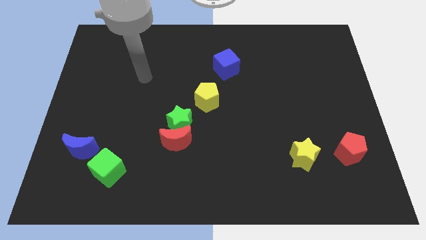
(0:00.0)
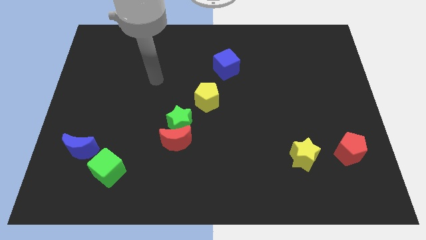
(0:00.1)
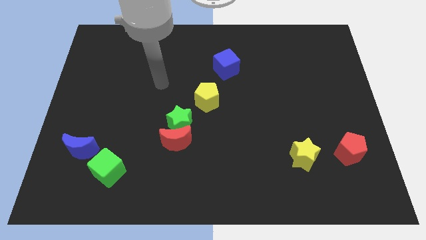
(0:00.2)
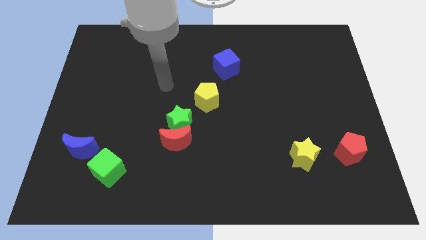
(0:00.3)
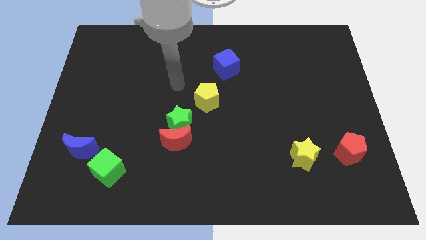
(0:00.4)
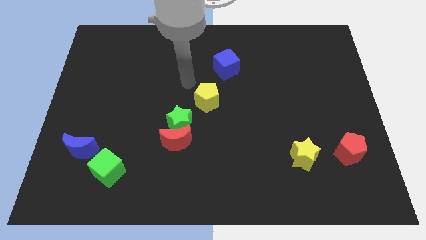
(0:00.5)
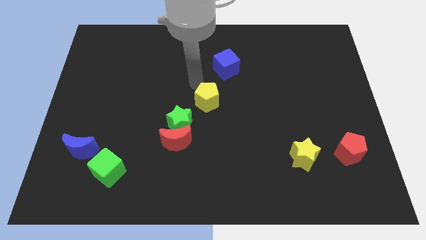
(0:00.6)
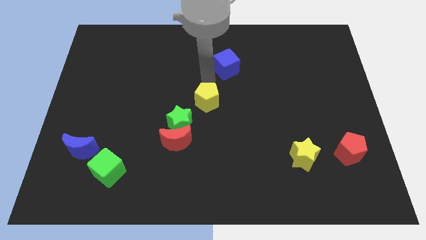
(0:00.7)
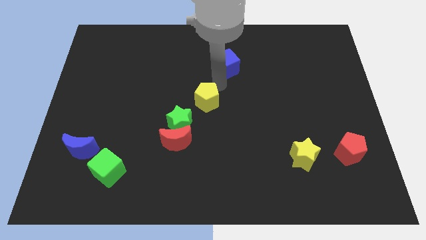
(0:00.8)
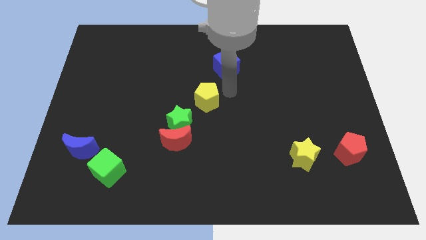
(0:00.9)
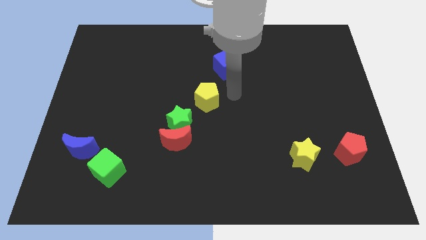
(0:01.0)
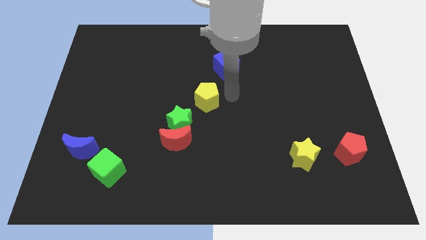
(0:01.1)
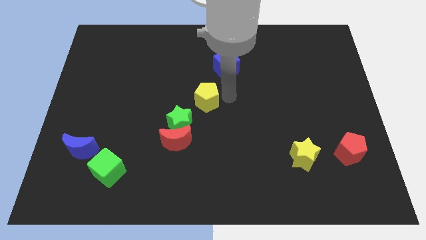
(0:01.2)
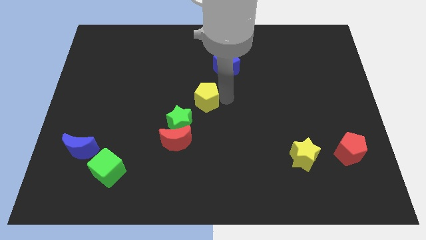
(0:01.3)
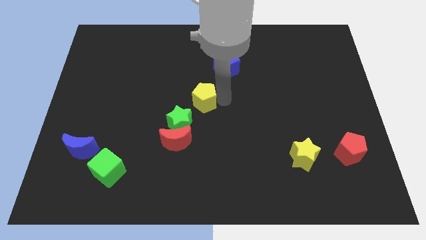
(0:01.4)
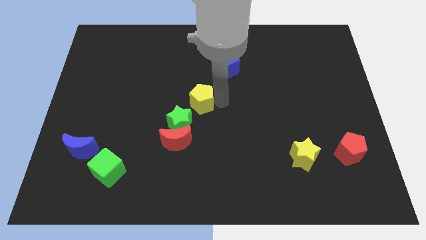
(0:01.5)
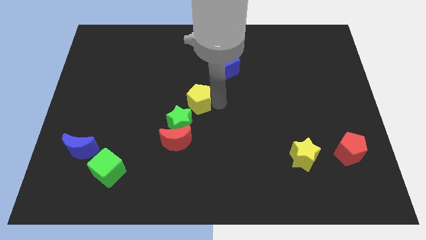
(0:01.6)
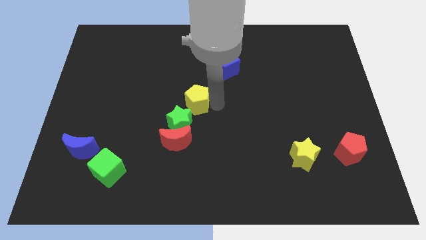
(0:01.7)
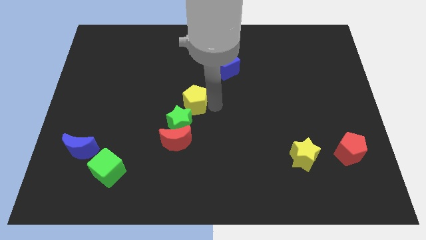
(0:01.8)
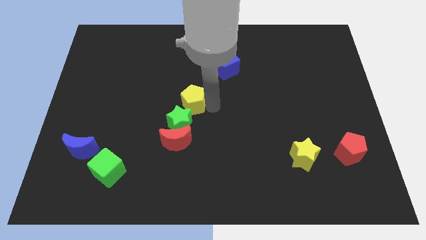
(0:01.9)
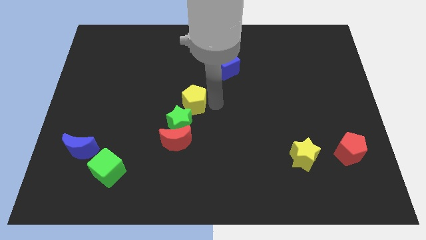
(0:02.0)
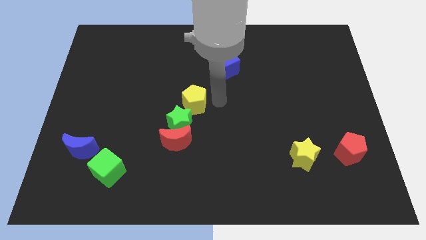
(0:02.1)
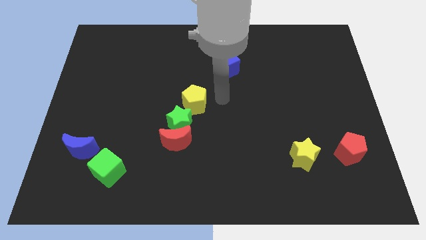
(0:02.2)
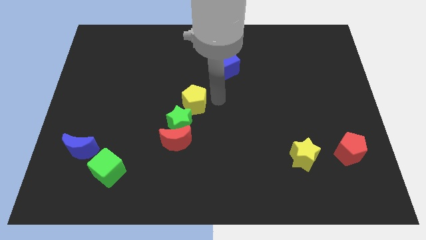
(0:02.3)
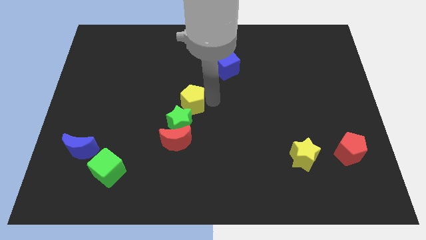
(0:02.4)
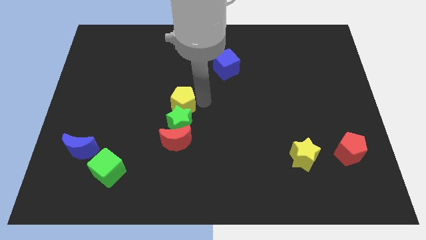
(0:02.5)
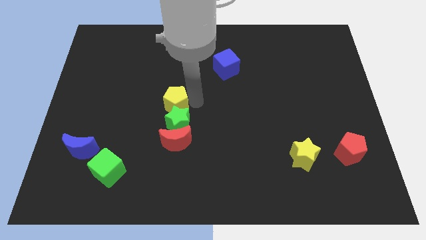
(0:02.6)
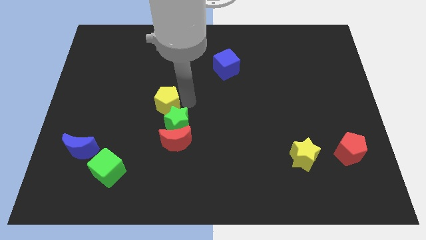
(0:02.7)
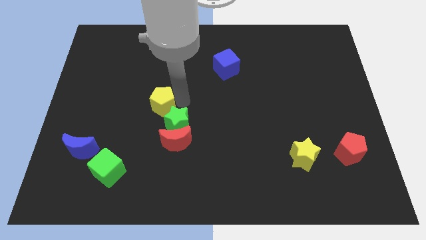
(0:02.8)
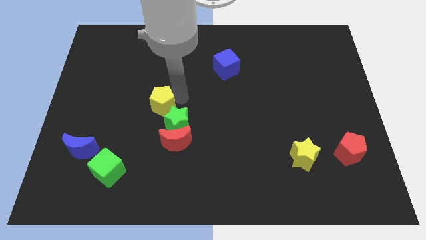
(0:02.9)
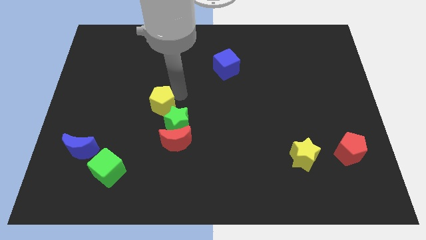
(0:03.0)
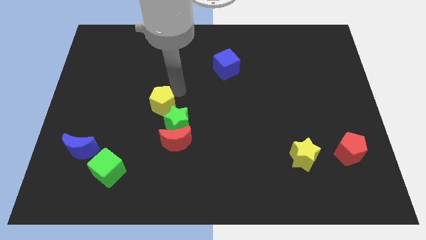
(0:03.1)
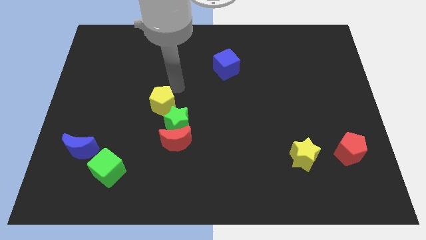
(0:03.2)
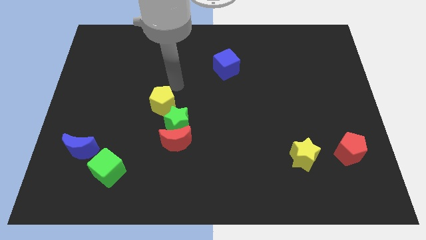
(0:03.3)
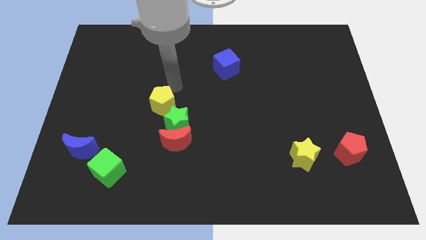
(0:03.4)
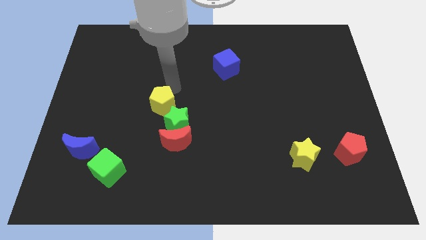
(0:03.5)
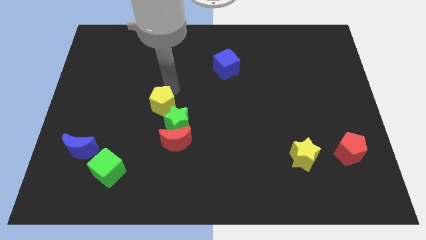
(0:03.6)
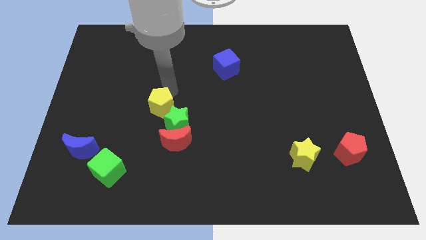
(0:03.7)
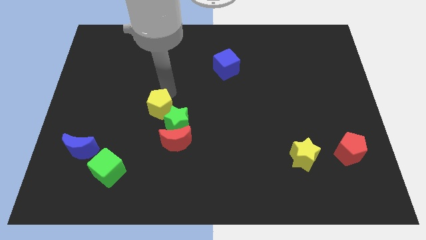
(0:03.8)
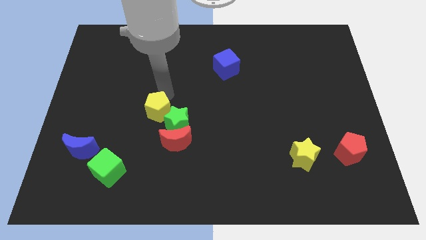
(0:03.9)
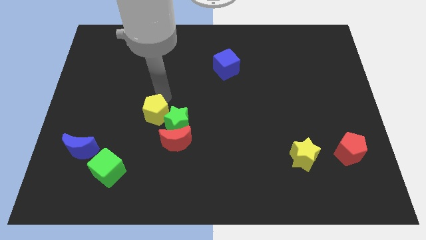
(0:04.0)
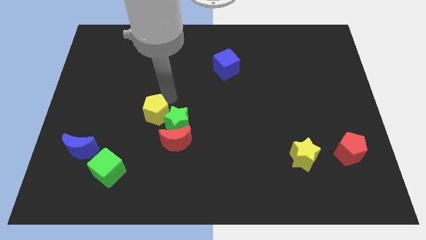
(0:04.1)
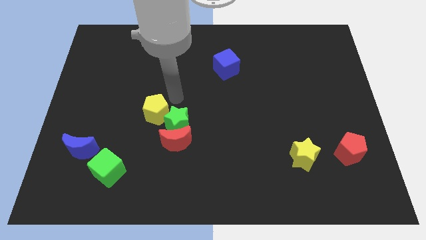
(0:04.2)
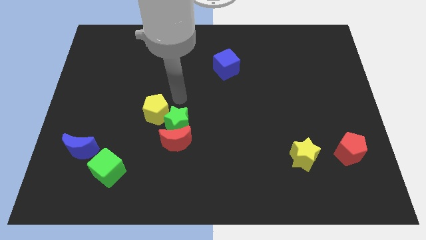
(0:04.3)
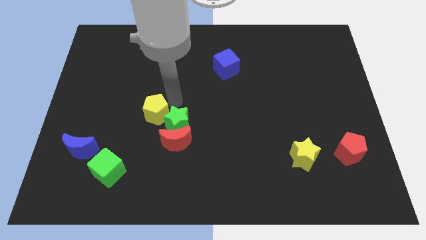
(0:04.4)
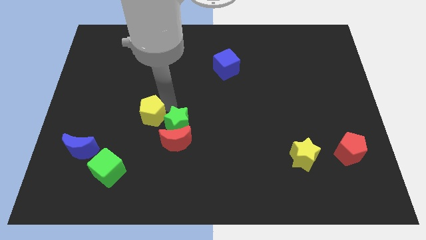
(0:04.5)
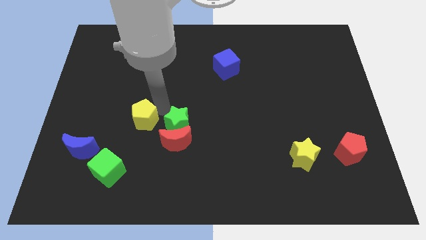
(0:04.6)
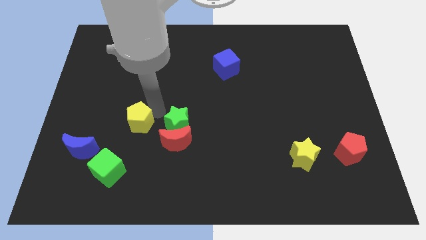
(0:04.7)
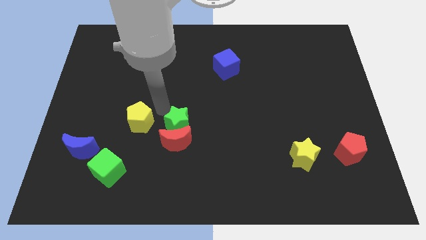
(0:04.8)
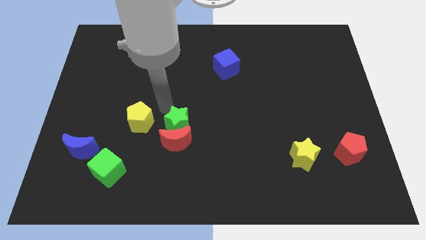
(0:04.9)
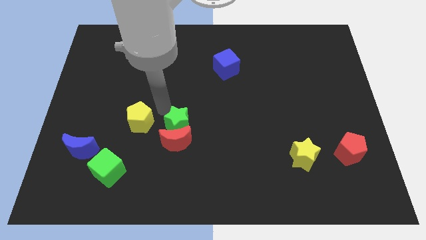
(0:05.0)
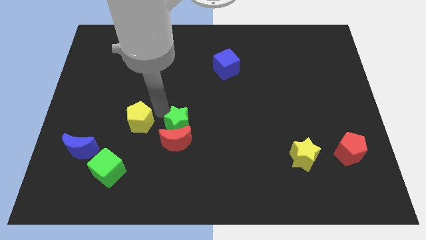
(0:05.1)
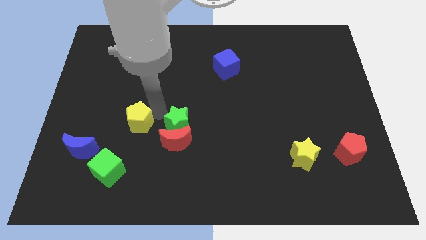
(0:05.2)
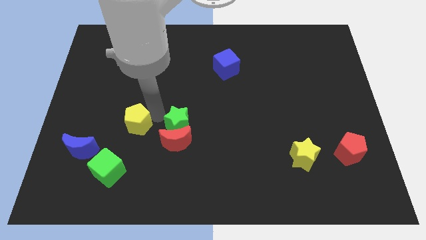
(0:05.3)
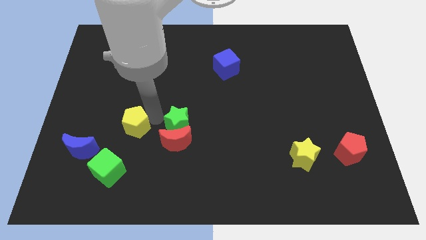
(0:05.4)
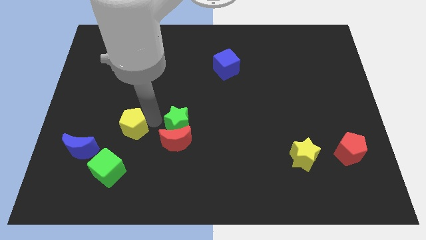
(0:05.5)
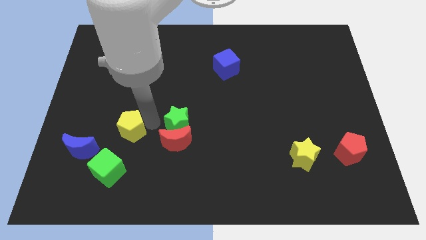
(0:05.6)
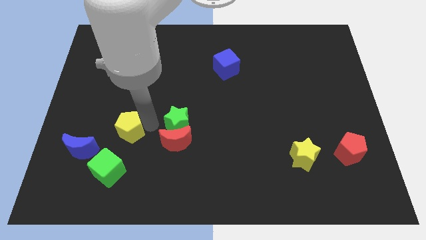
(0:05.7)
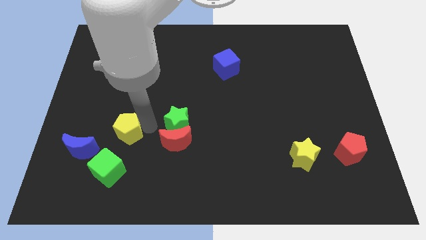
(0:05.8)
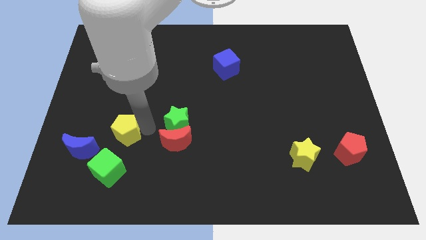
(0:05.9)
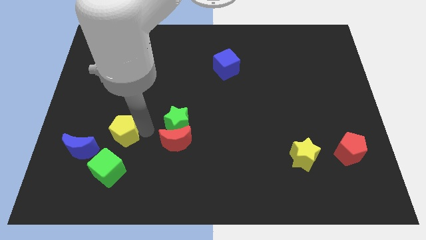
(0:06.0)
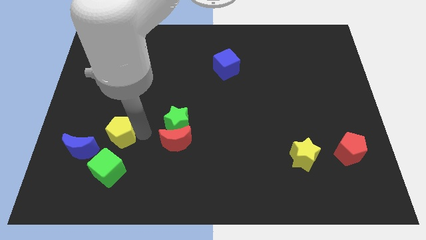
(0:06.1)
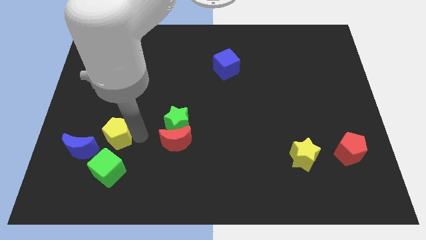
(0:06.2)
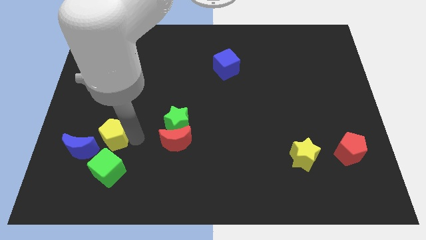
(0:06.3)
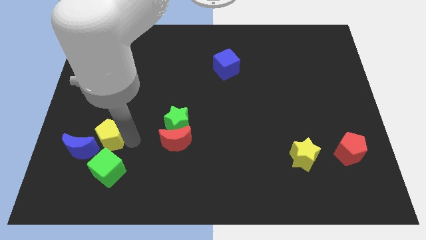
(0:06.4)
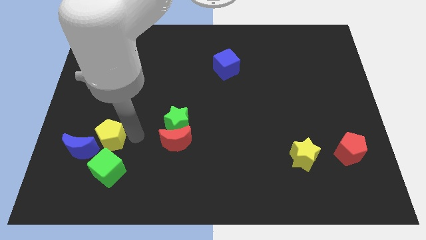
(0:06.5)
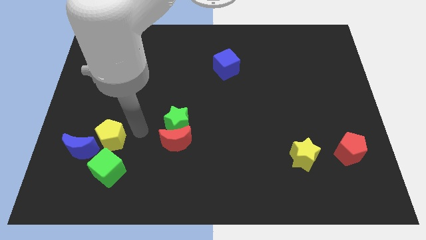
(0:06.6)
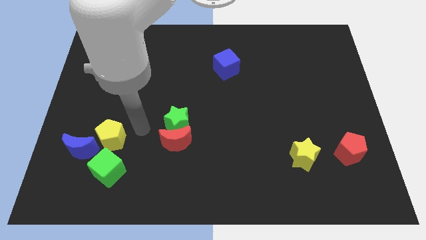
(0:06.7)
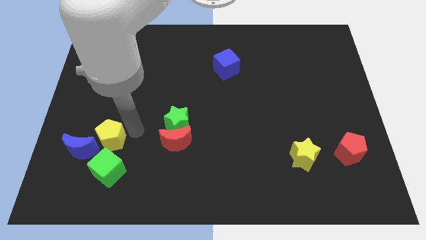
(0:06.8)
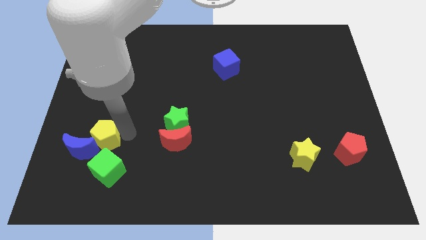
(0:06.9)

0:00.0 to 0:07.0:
put the yellow pentagon towards the blue moon
